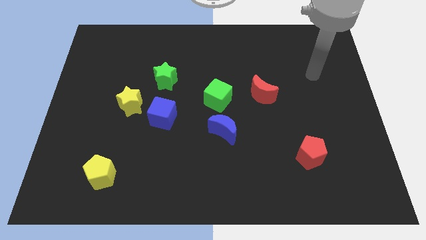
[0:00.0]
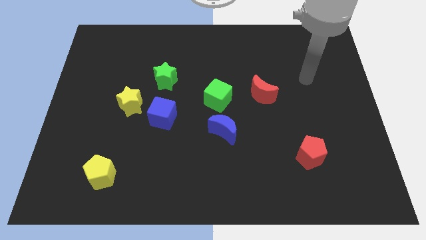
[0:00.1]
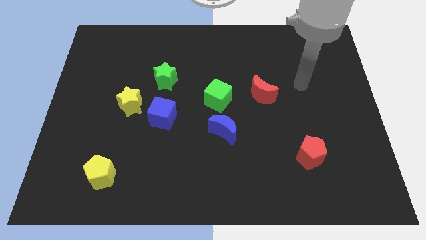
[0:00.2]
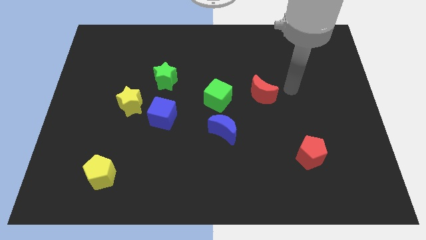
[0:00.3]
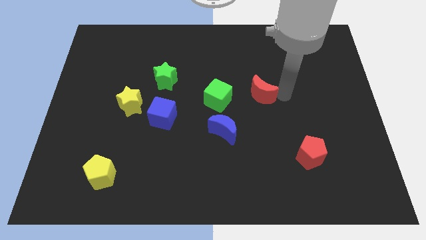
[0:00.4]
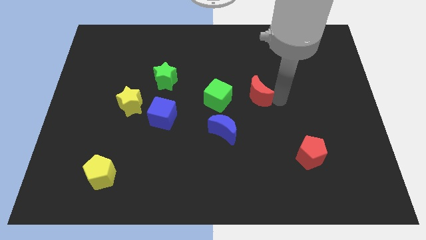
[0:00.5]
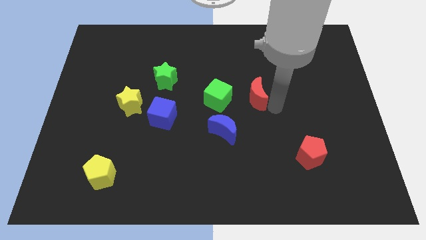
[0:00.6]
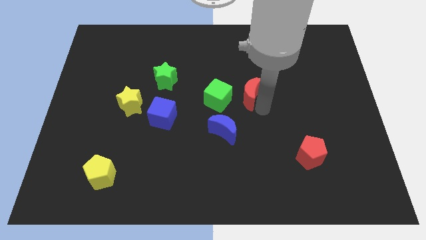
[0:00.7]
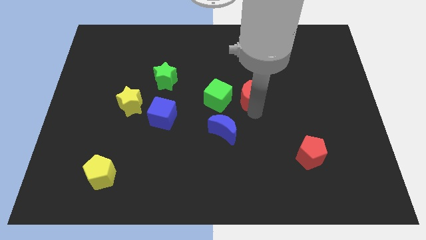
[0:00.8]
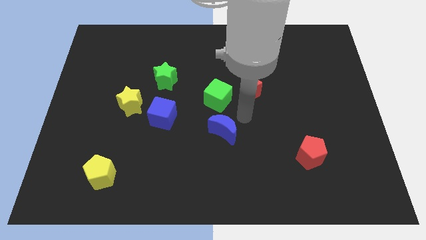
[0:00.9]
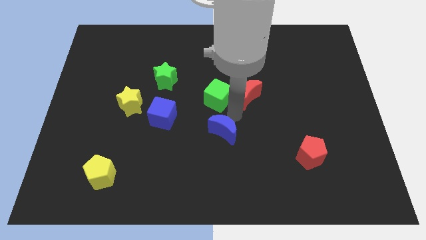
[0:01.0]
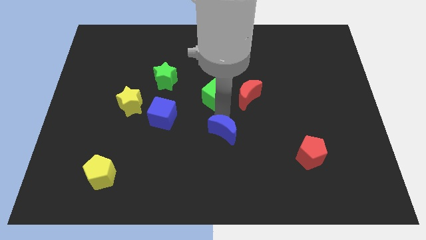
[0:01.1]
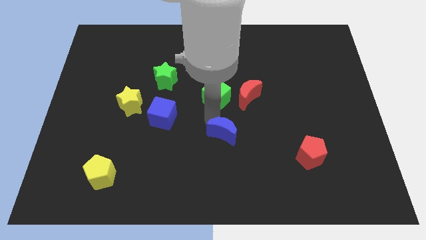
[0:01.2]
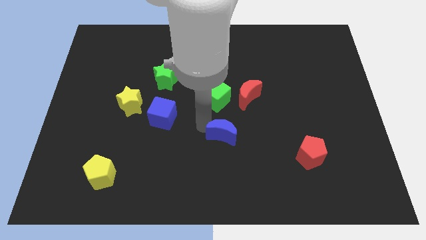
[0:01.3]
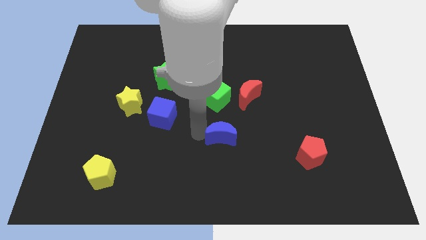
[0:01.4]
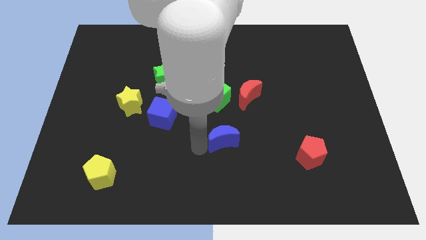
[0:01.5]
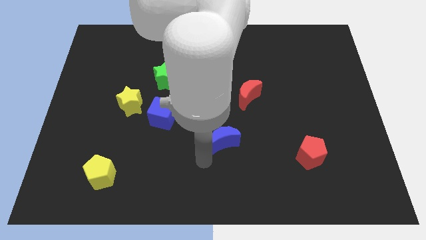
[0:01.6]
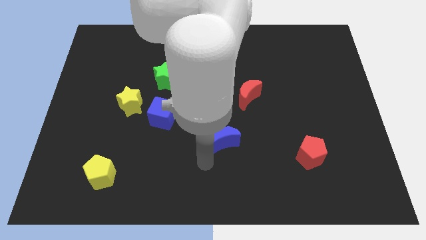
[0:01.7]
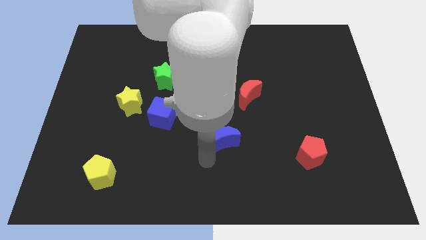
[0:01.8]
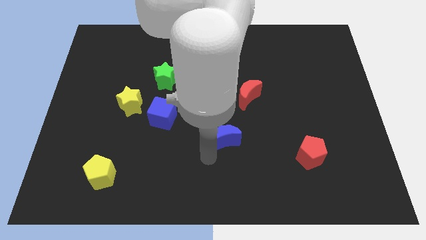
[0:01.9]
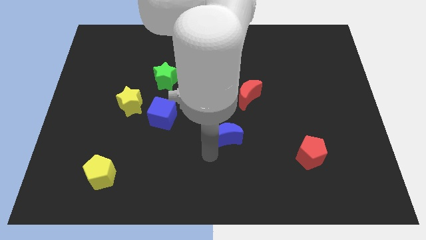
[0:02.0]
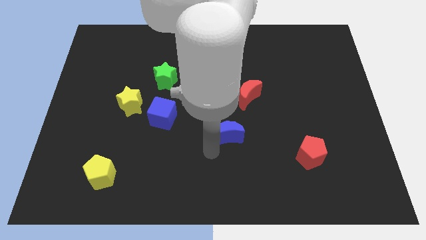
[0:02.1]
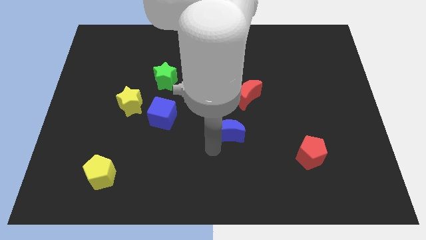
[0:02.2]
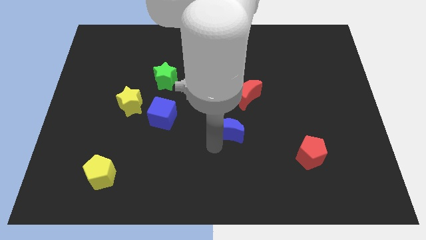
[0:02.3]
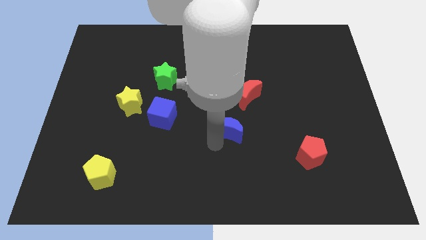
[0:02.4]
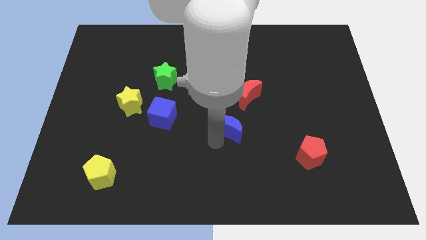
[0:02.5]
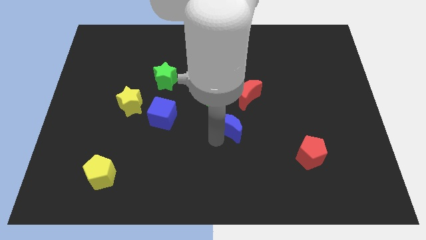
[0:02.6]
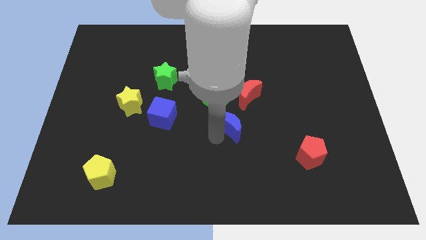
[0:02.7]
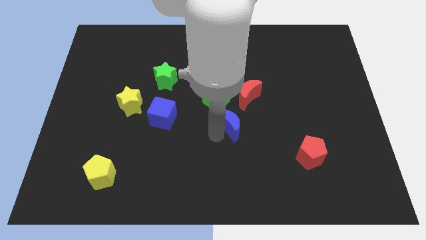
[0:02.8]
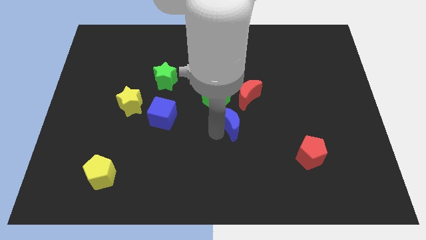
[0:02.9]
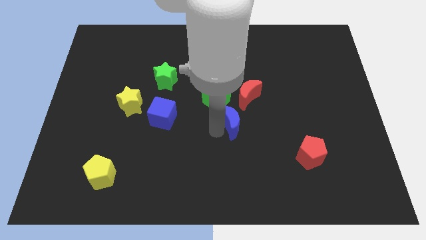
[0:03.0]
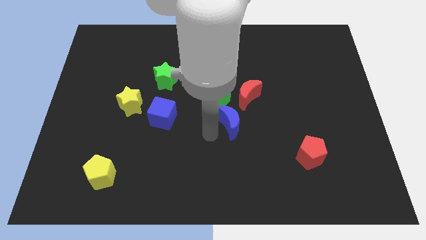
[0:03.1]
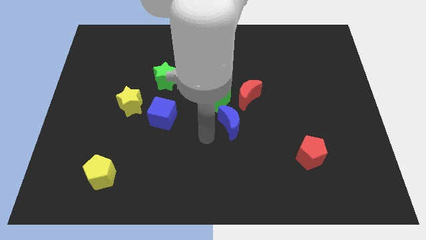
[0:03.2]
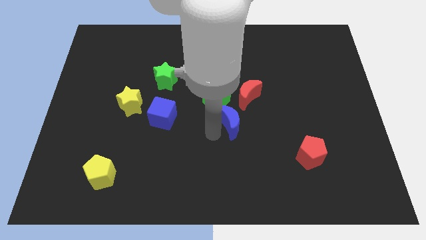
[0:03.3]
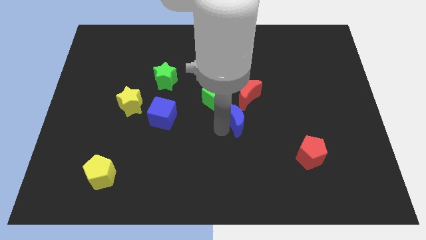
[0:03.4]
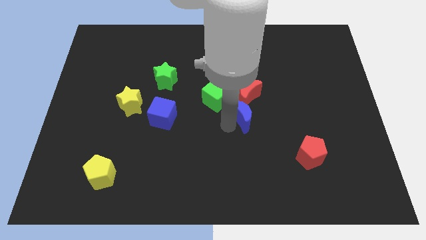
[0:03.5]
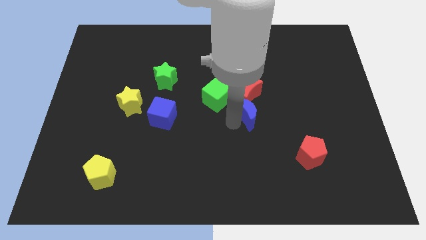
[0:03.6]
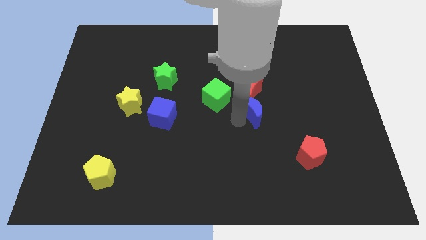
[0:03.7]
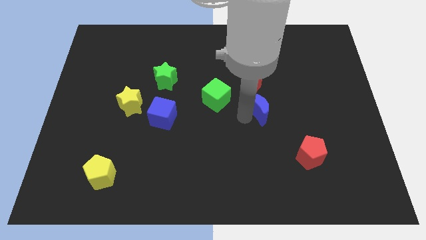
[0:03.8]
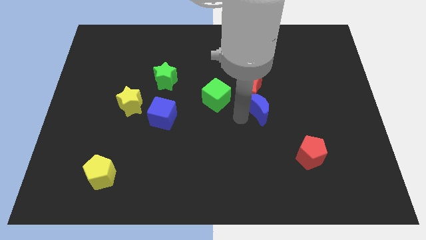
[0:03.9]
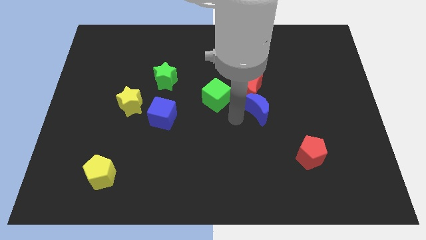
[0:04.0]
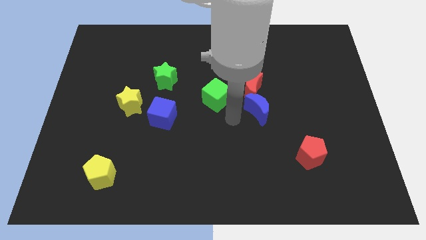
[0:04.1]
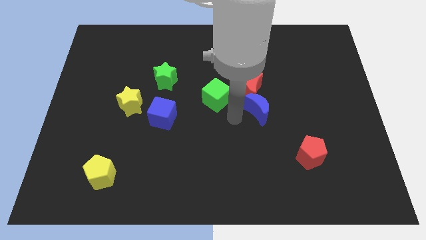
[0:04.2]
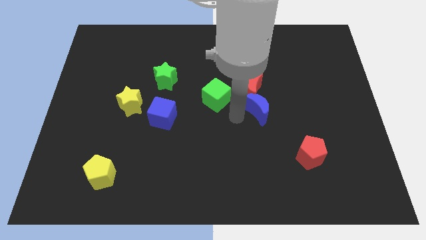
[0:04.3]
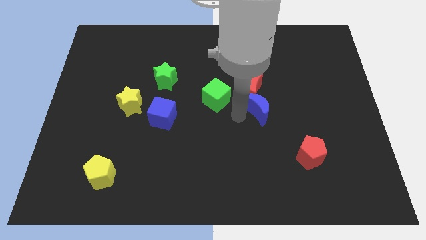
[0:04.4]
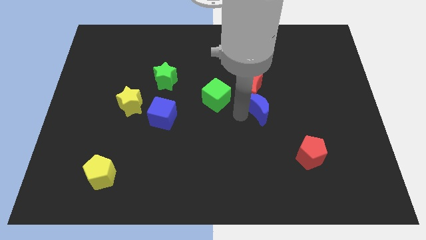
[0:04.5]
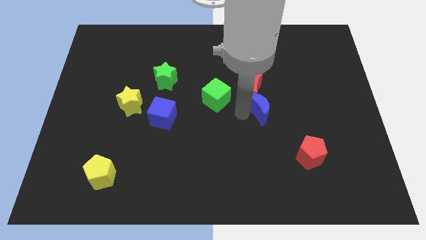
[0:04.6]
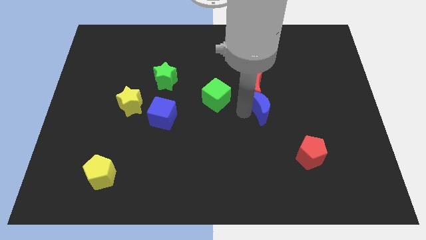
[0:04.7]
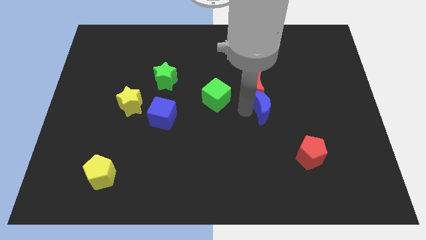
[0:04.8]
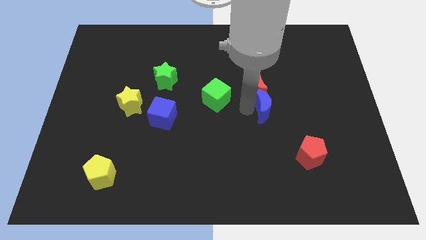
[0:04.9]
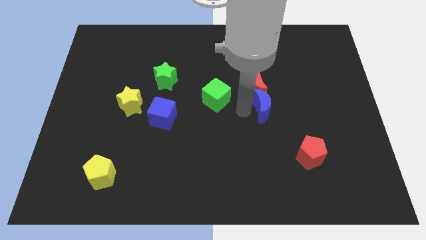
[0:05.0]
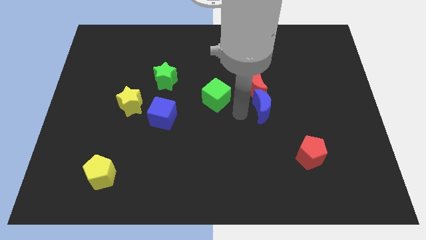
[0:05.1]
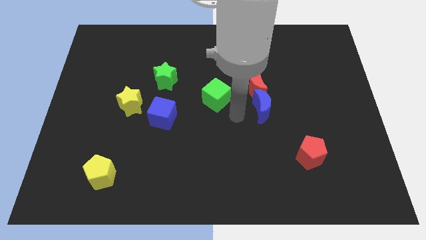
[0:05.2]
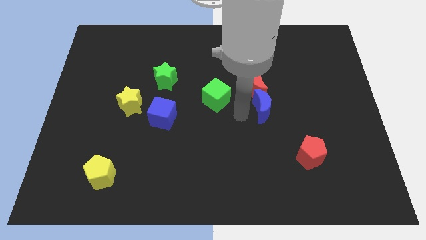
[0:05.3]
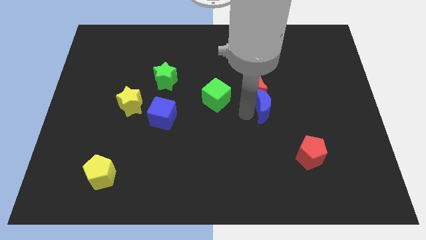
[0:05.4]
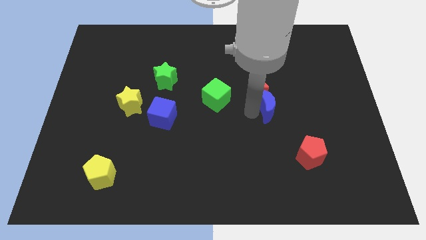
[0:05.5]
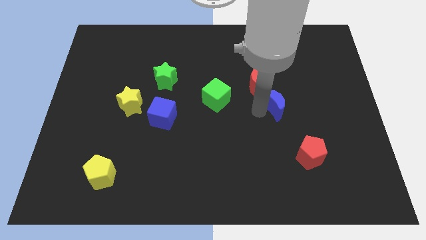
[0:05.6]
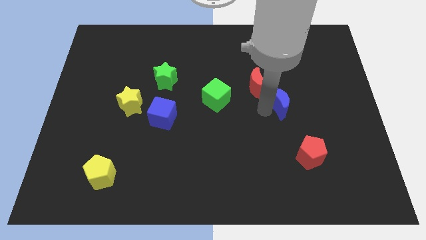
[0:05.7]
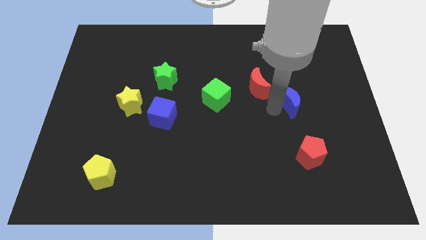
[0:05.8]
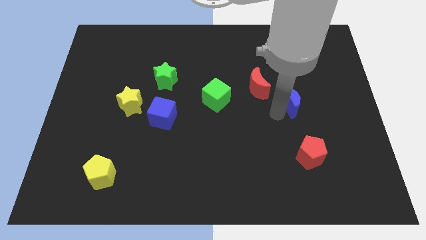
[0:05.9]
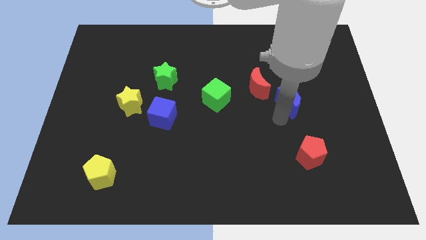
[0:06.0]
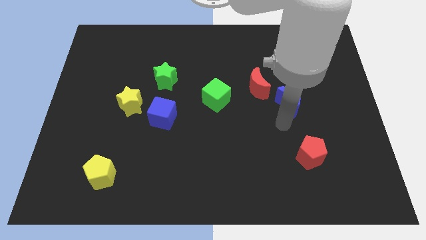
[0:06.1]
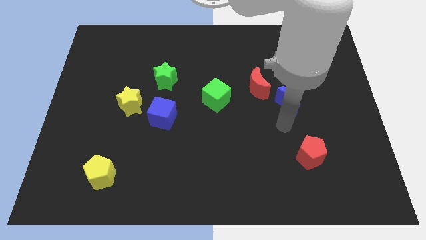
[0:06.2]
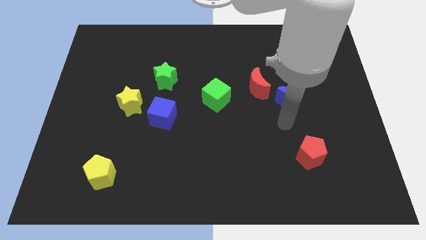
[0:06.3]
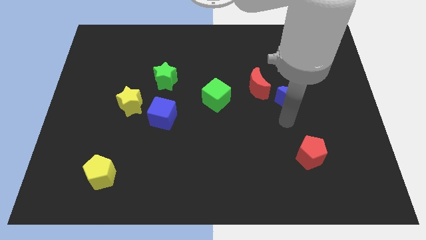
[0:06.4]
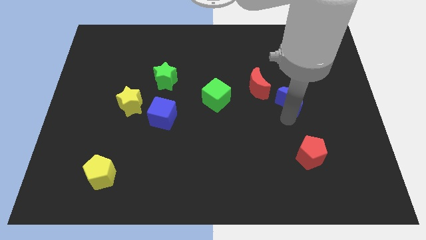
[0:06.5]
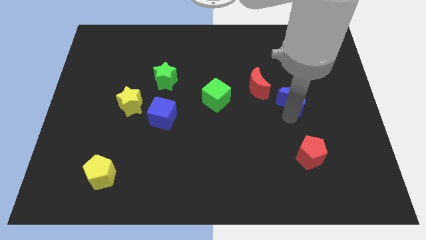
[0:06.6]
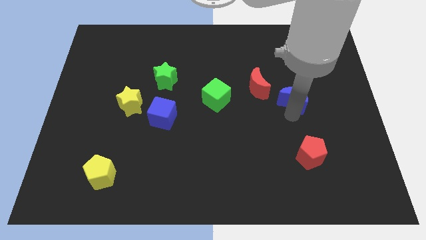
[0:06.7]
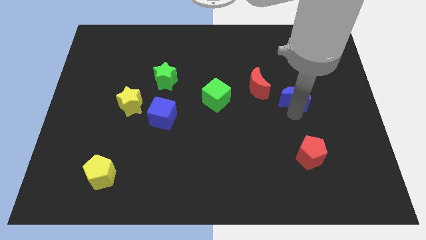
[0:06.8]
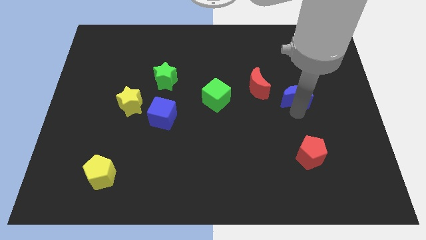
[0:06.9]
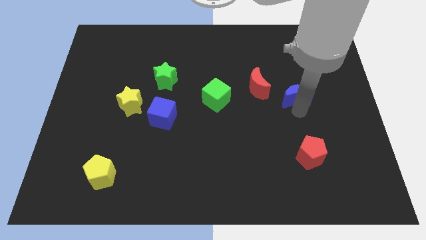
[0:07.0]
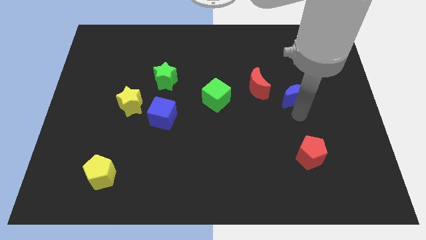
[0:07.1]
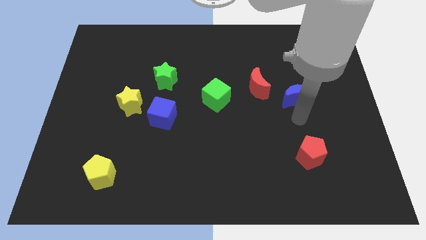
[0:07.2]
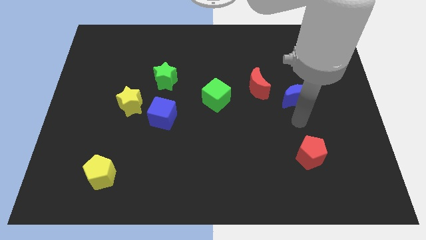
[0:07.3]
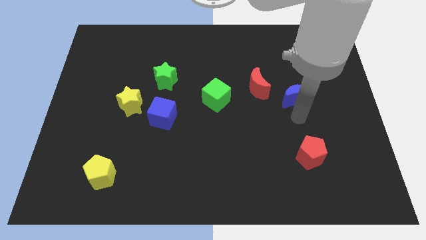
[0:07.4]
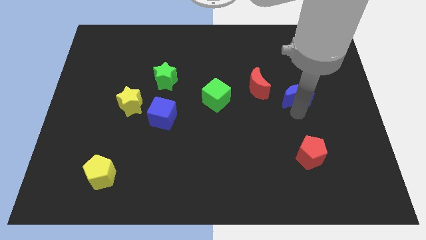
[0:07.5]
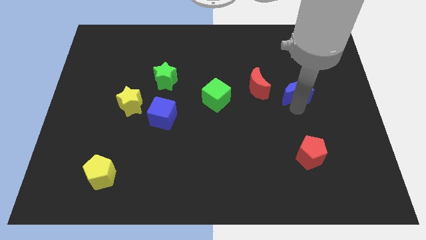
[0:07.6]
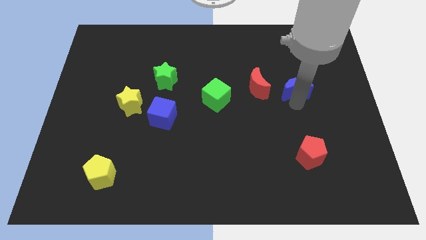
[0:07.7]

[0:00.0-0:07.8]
push the blue moon up and then to the right
